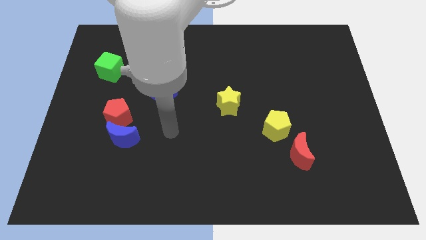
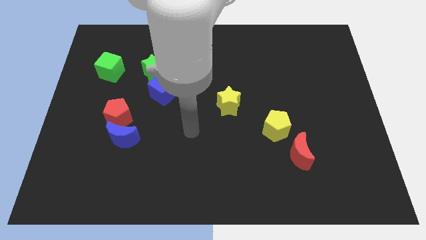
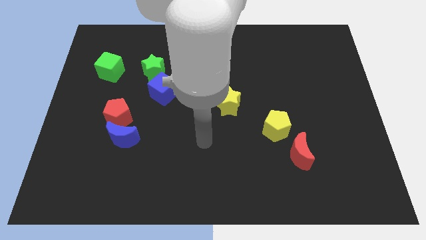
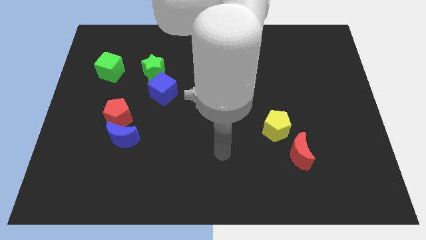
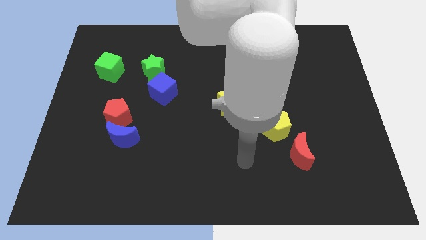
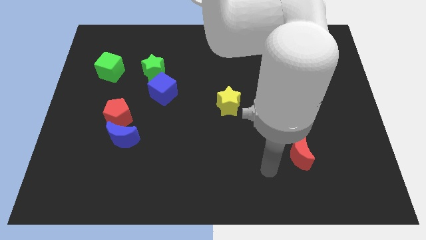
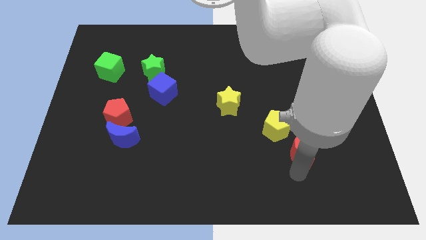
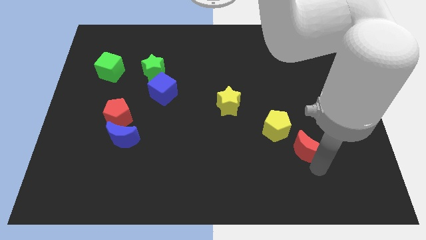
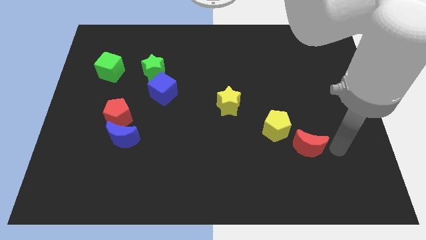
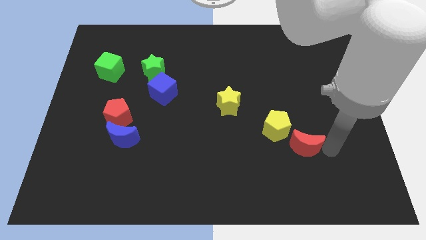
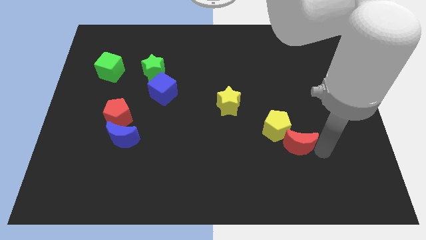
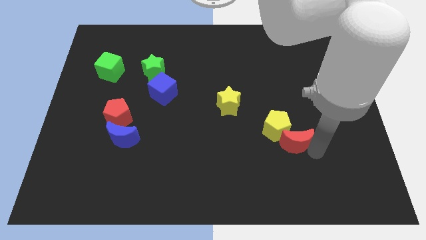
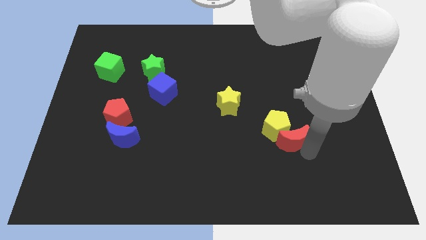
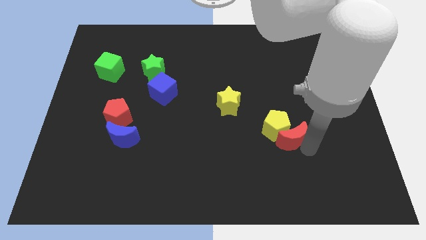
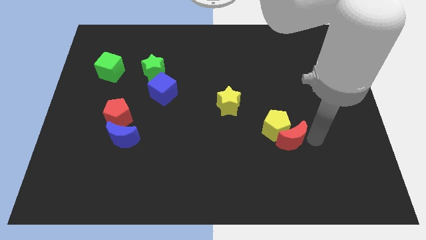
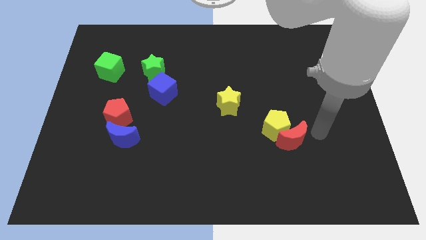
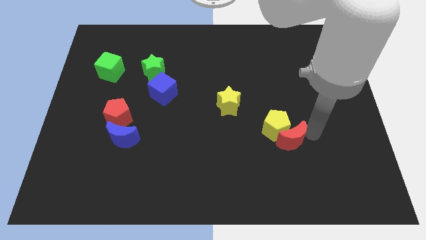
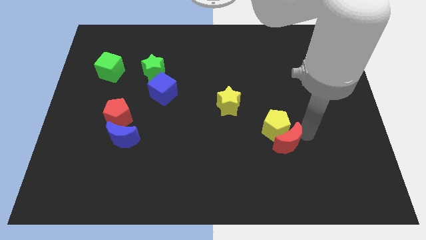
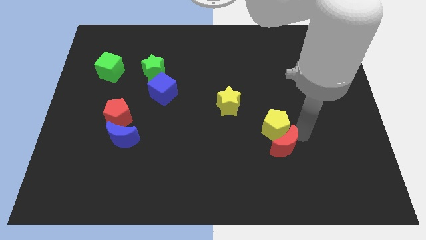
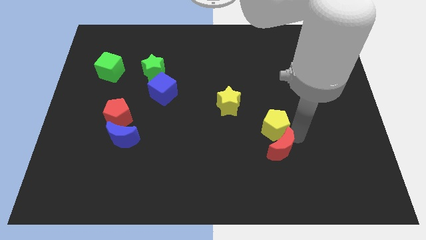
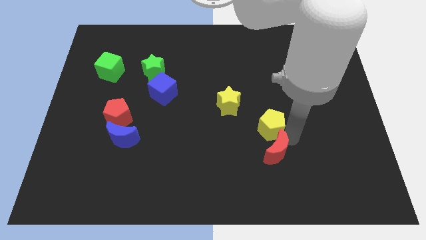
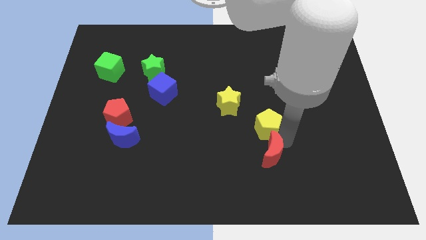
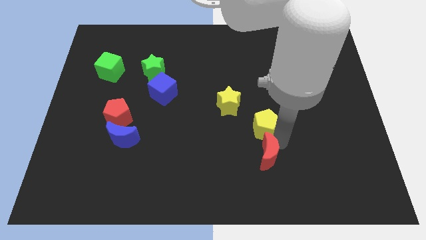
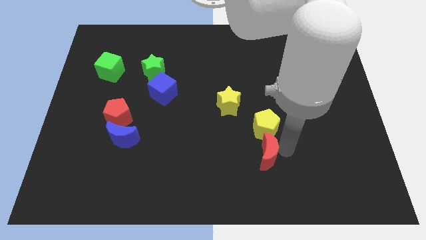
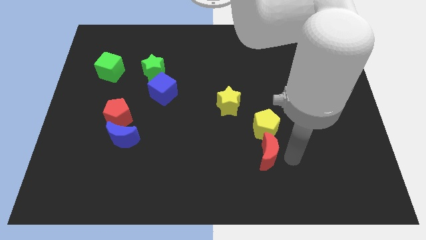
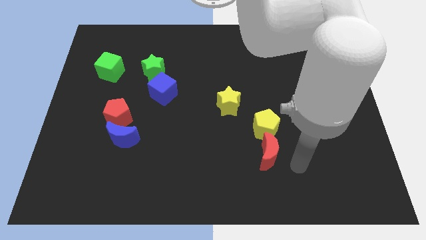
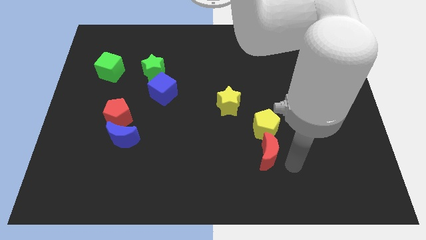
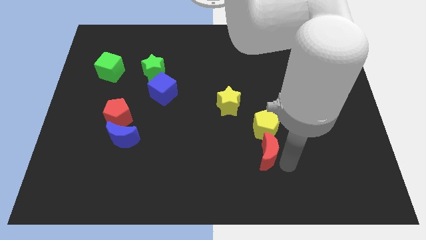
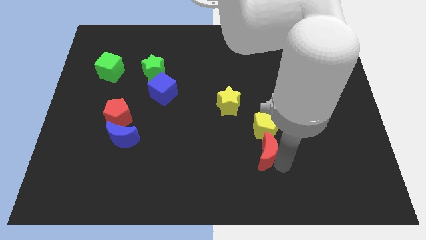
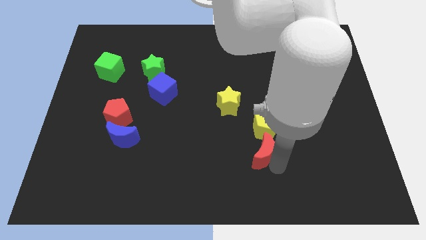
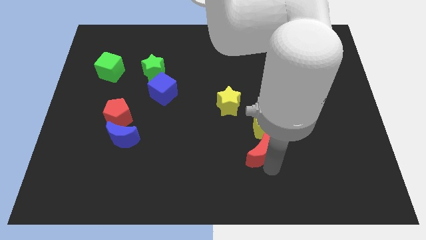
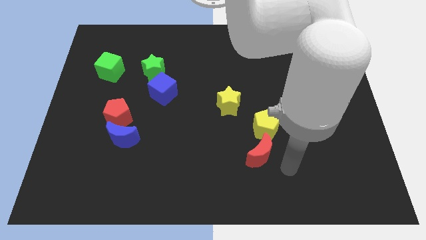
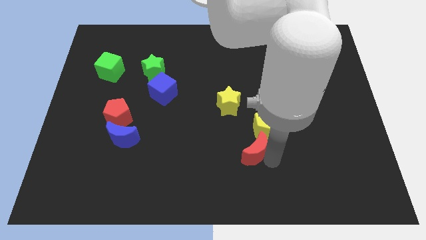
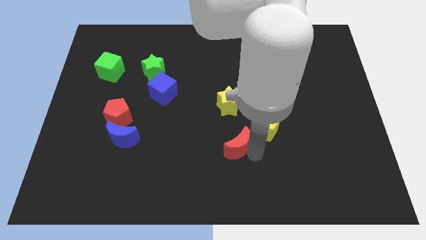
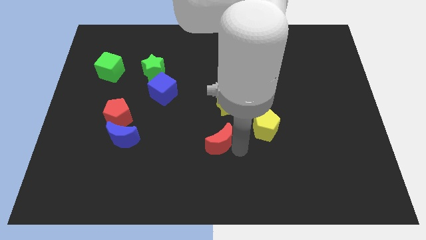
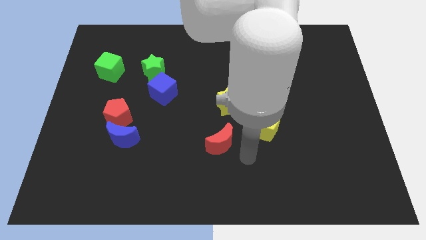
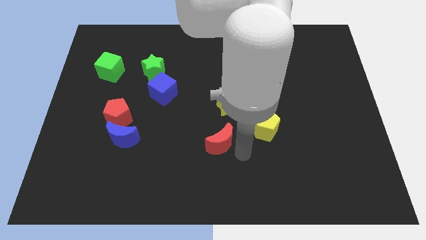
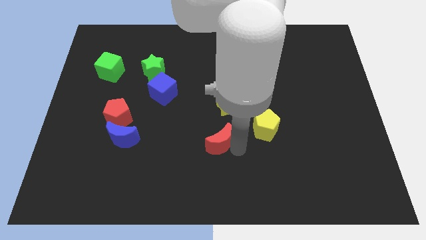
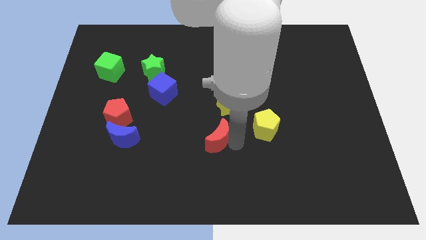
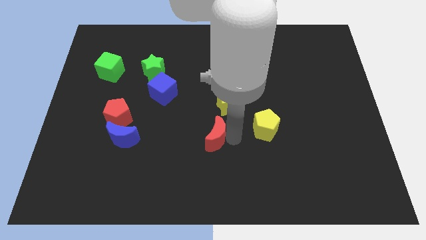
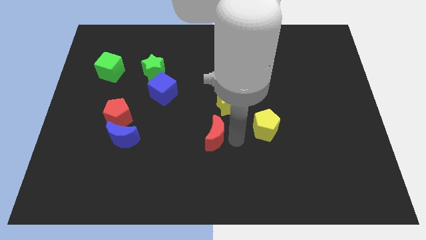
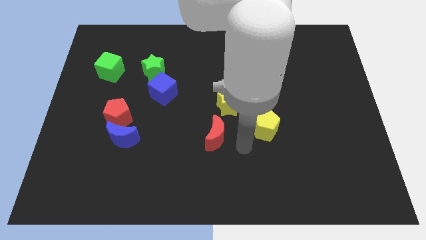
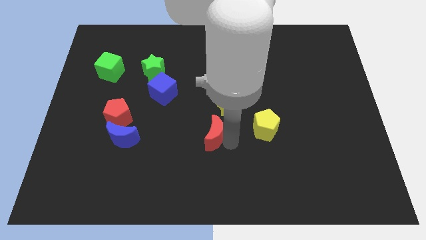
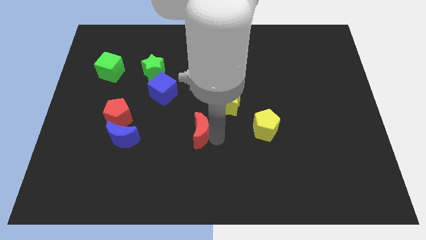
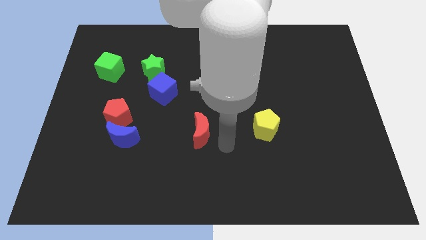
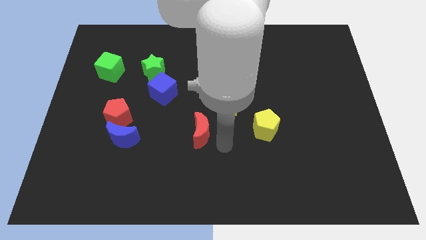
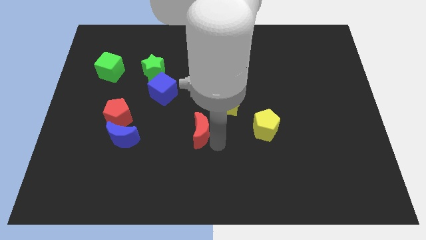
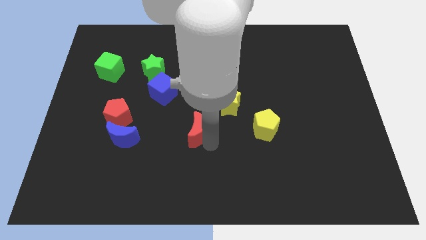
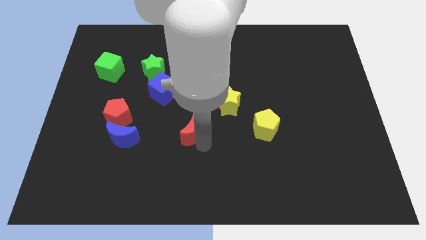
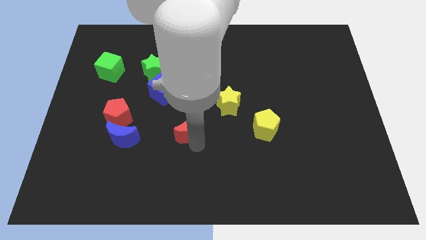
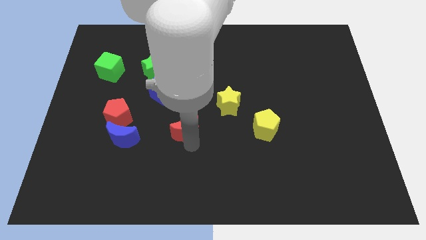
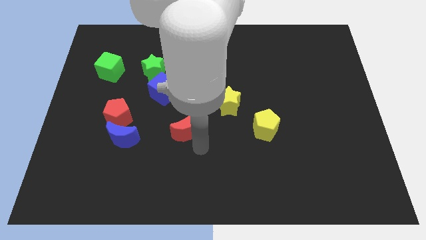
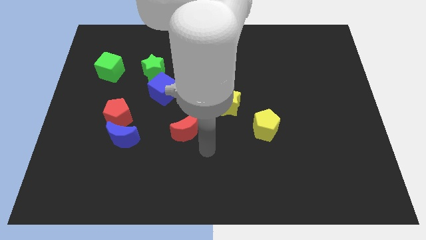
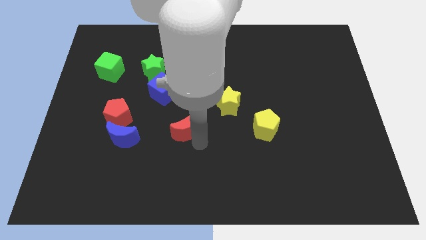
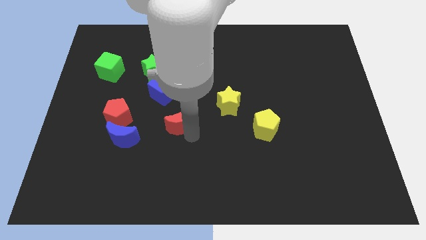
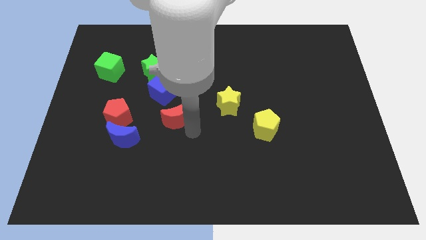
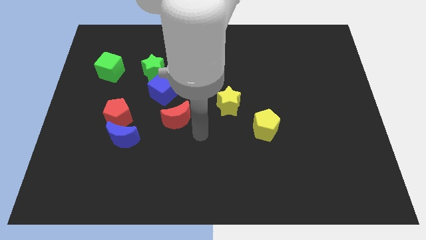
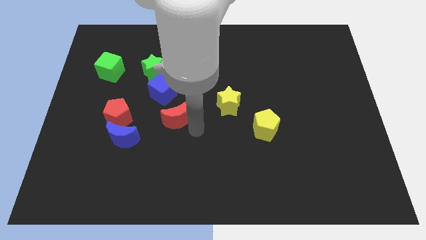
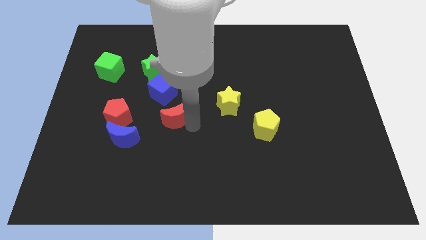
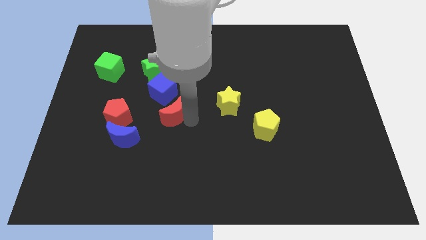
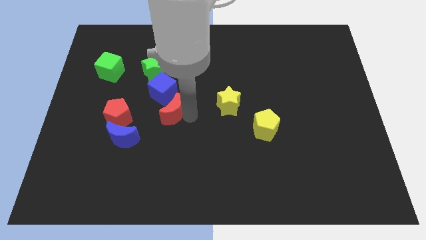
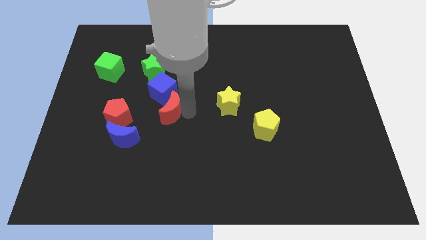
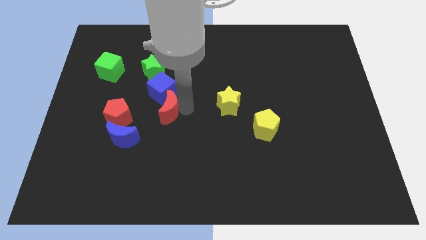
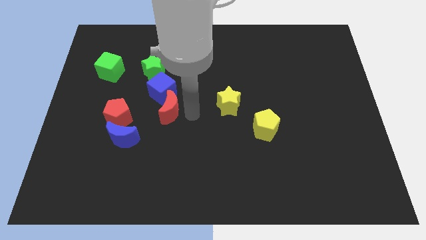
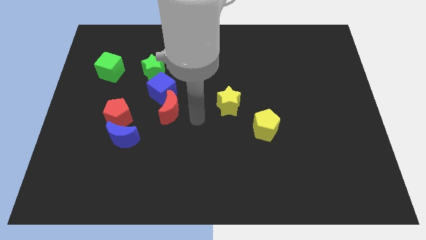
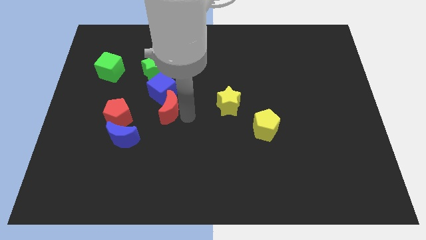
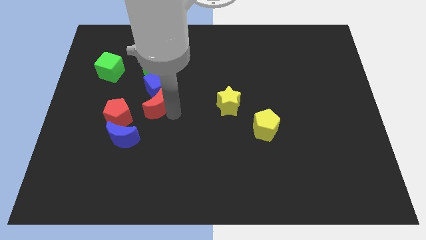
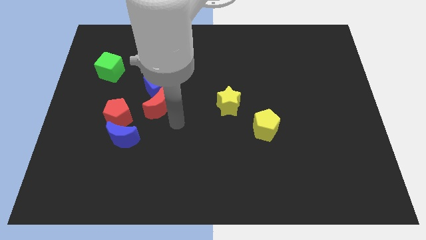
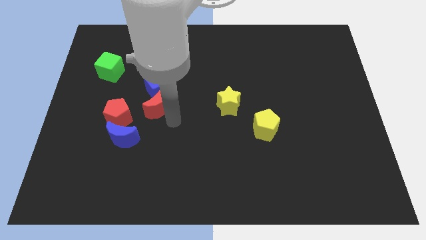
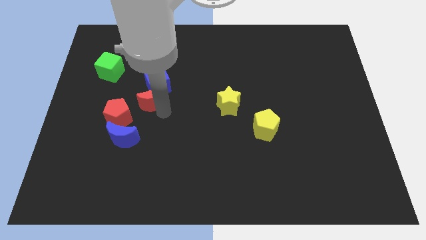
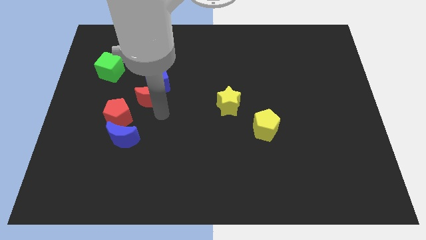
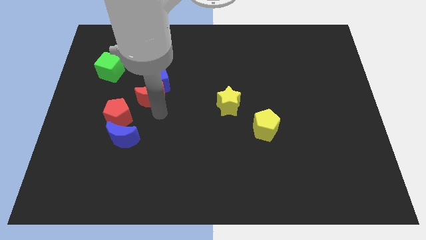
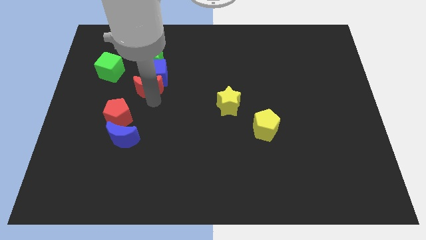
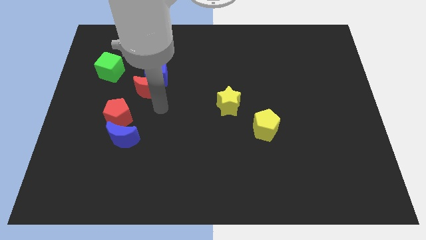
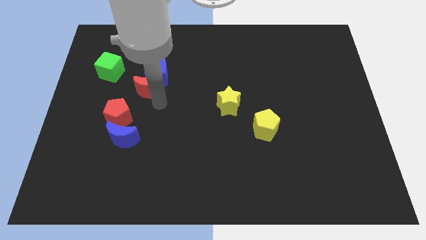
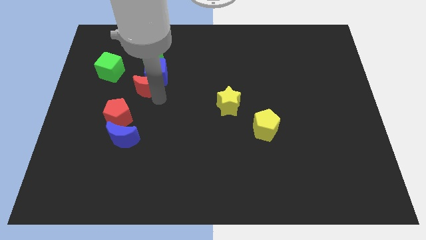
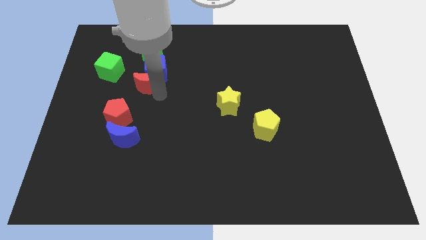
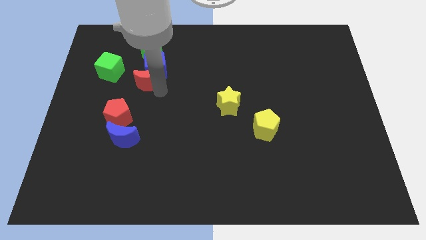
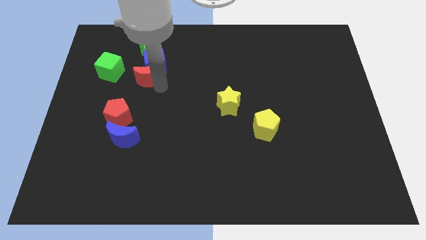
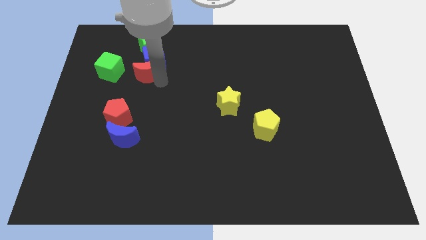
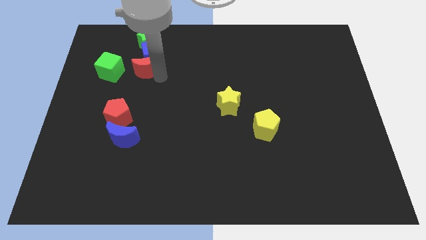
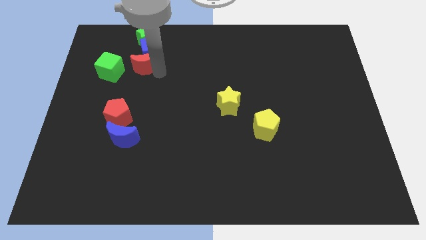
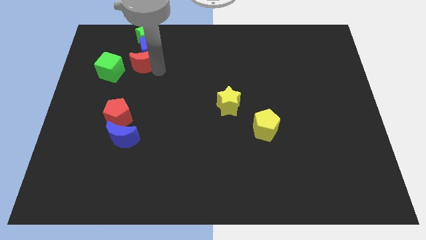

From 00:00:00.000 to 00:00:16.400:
slide the red moon to the top right of the green cube
